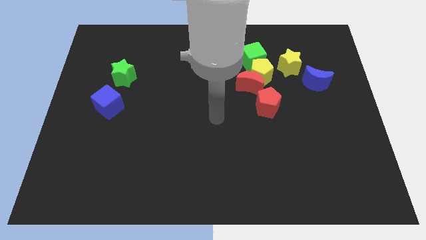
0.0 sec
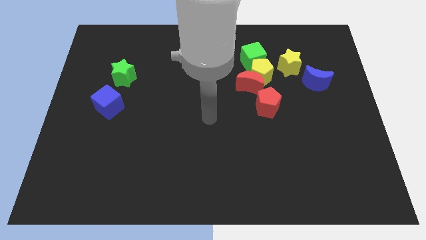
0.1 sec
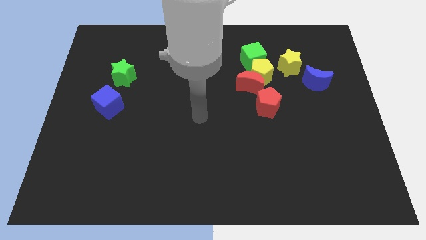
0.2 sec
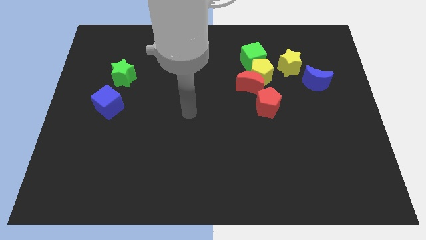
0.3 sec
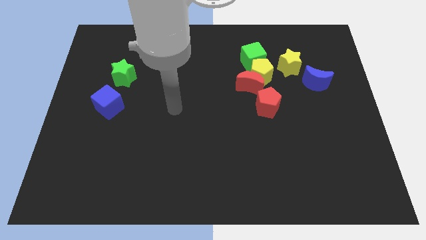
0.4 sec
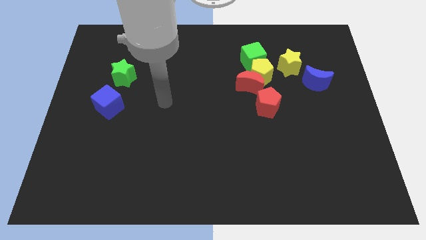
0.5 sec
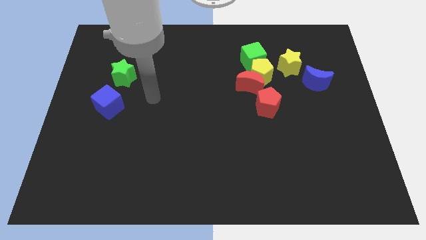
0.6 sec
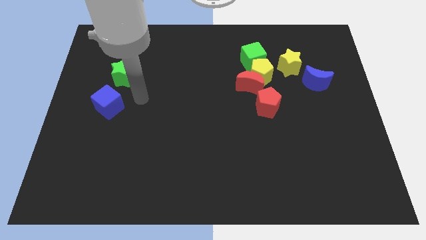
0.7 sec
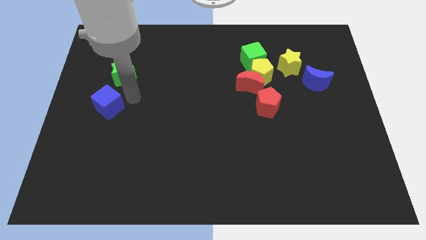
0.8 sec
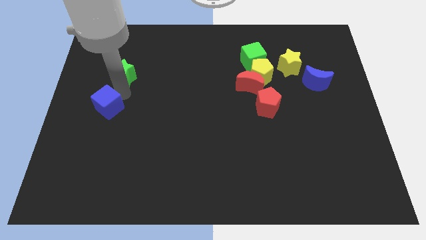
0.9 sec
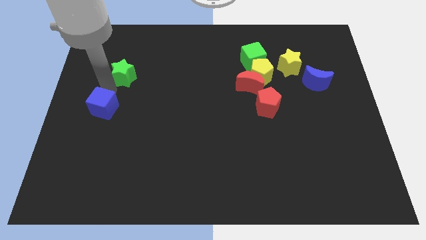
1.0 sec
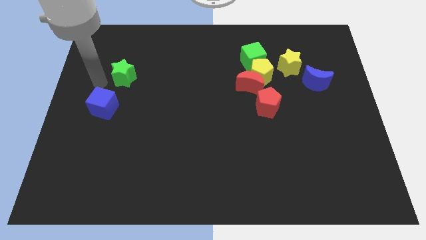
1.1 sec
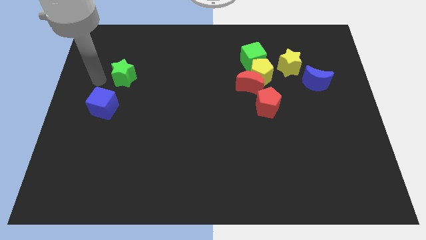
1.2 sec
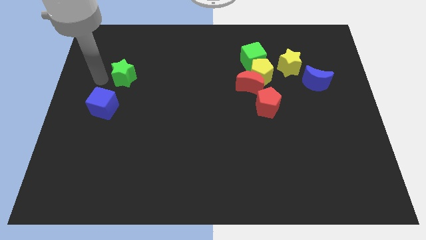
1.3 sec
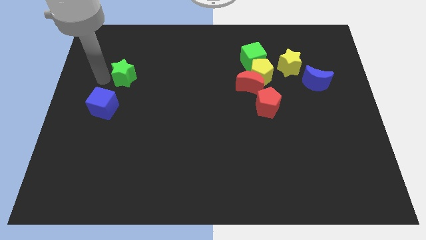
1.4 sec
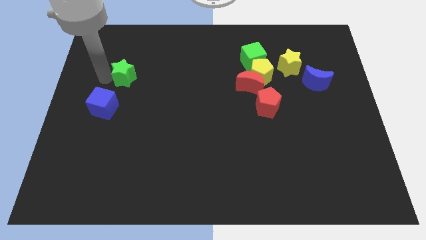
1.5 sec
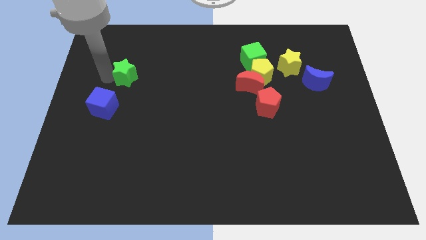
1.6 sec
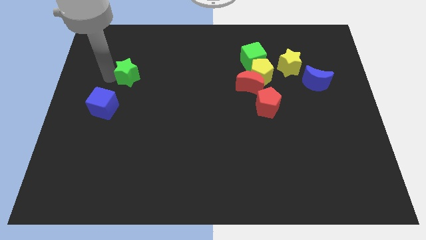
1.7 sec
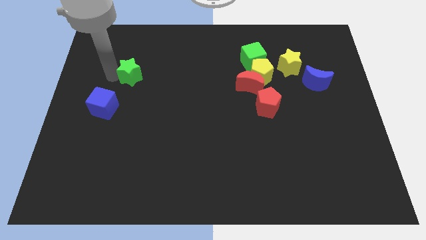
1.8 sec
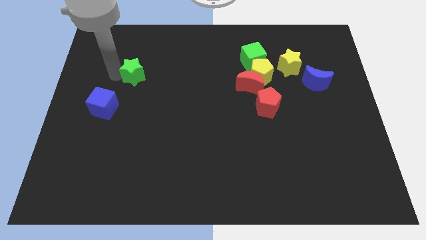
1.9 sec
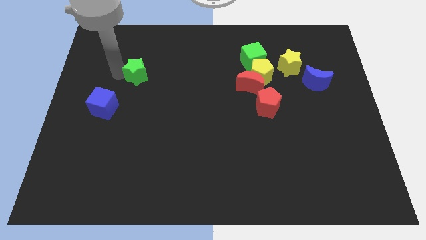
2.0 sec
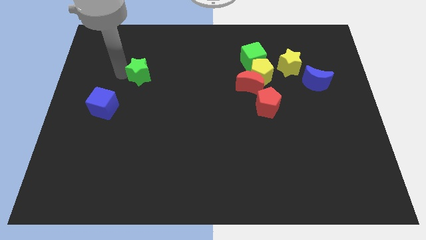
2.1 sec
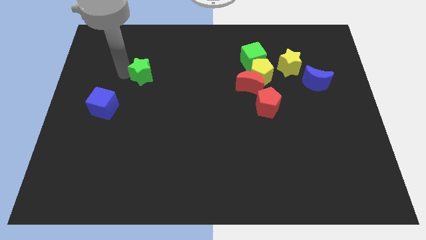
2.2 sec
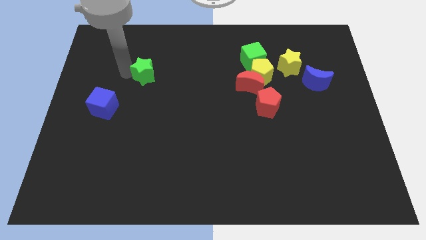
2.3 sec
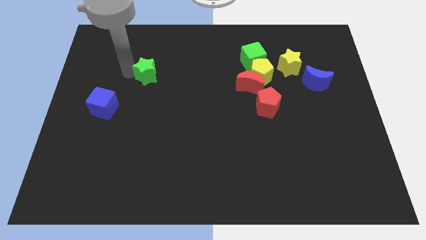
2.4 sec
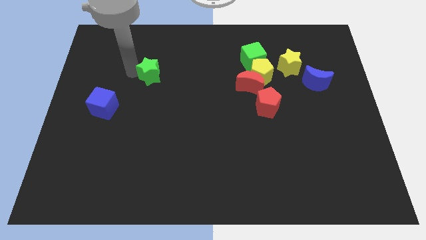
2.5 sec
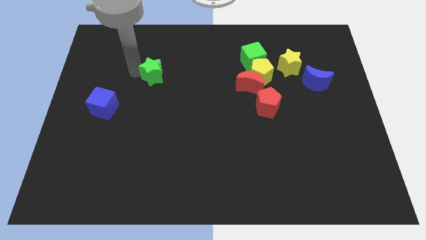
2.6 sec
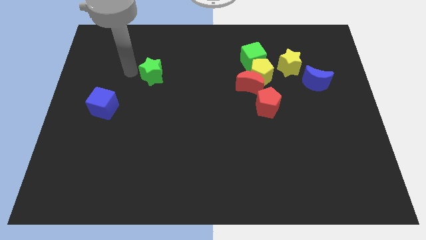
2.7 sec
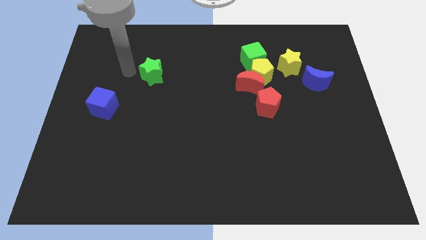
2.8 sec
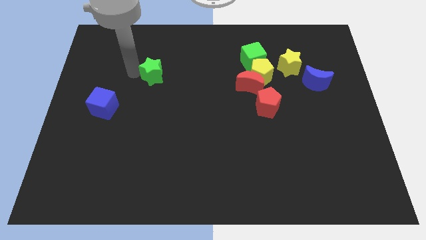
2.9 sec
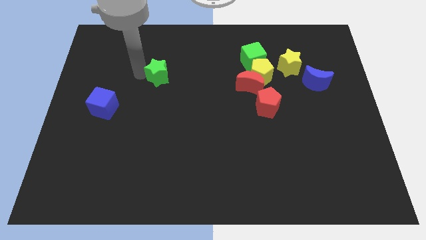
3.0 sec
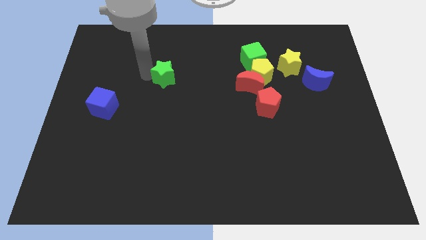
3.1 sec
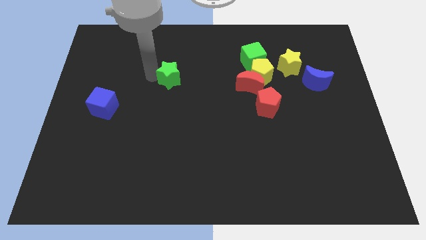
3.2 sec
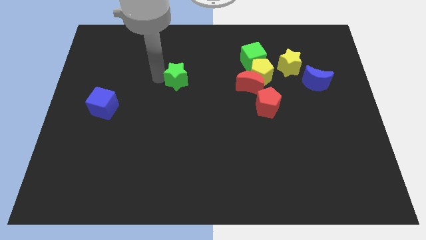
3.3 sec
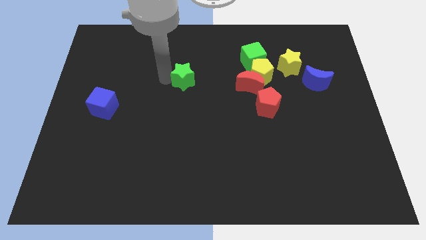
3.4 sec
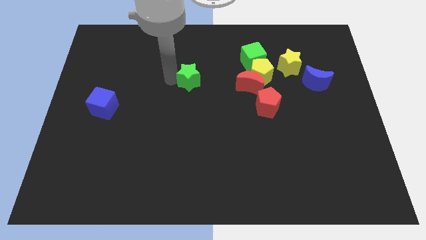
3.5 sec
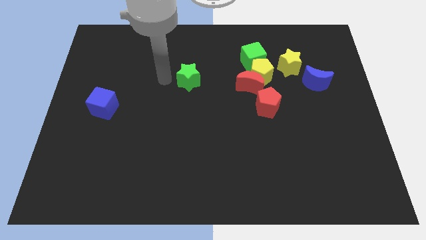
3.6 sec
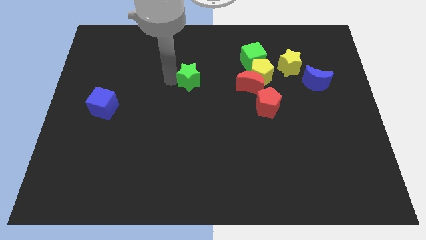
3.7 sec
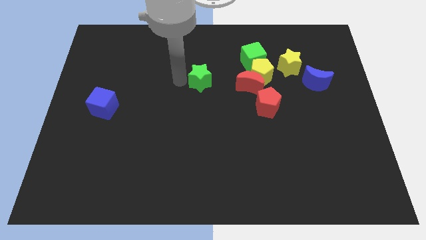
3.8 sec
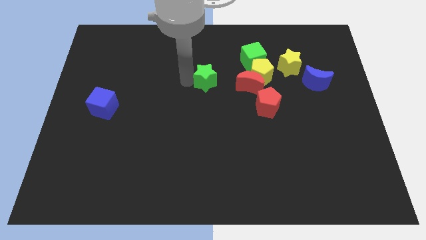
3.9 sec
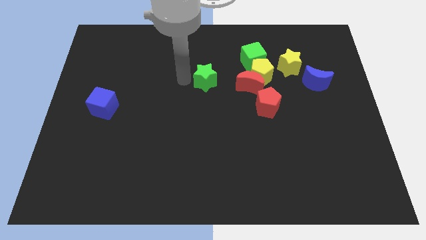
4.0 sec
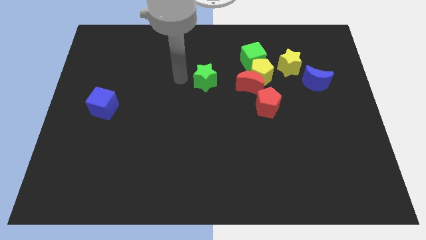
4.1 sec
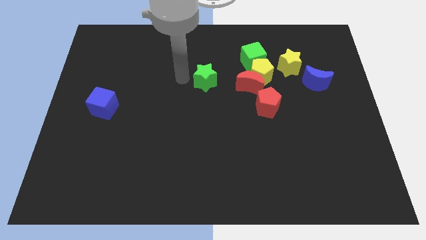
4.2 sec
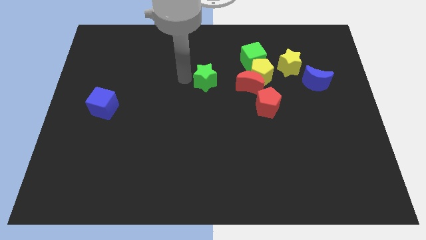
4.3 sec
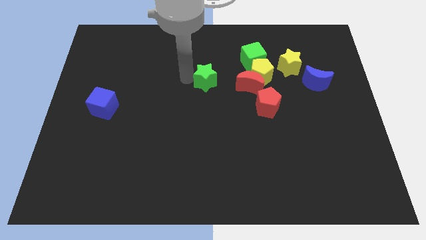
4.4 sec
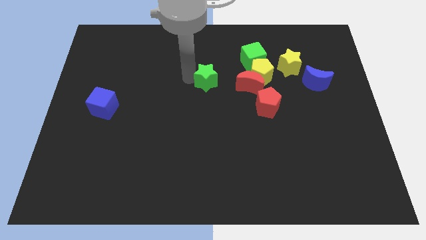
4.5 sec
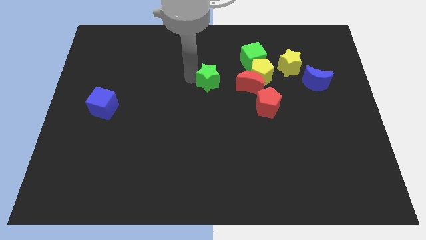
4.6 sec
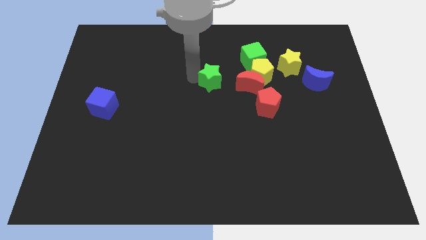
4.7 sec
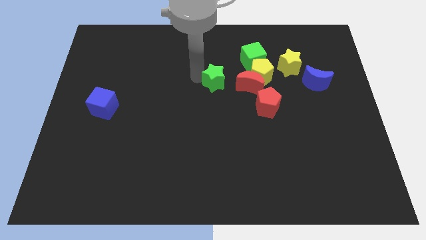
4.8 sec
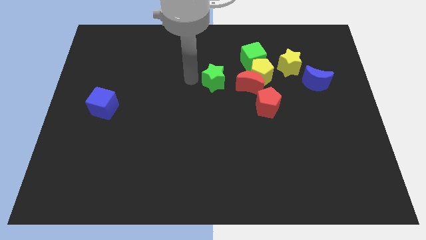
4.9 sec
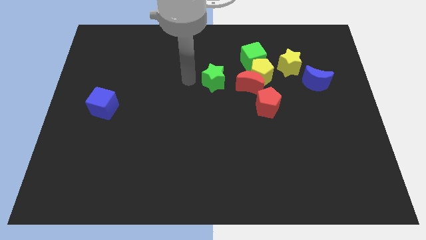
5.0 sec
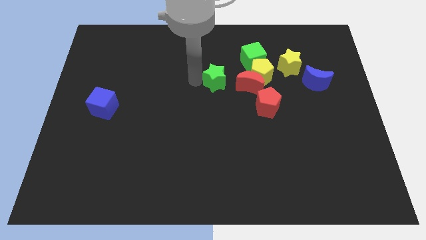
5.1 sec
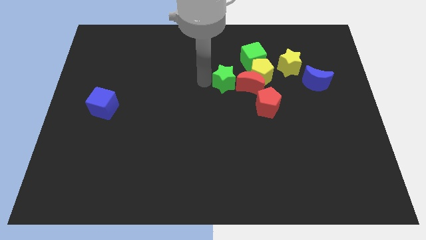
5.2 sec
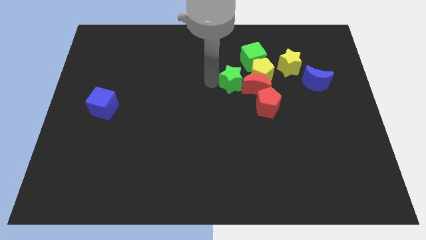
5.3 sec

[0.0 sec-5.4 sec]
push the green star close to the red moon

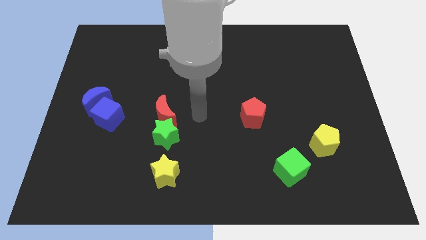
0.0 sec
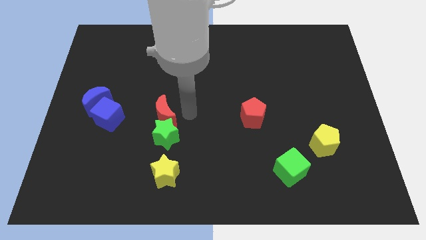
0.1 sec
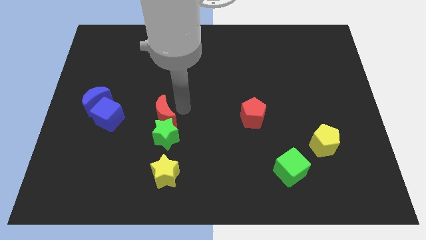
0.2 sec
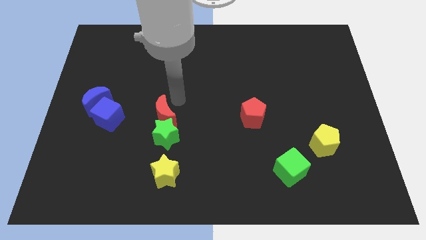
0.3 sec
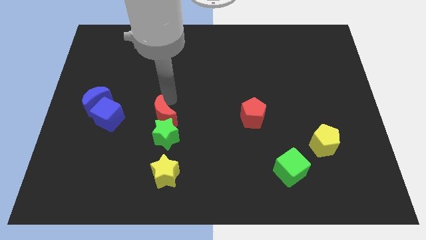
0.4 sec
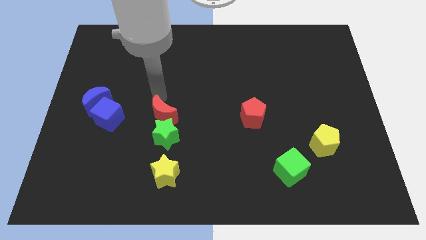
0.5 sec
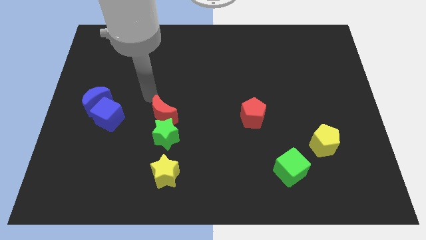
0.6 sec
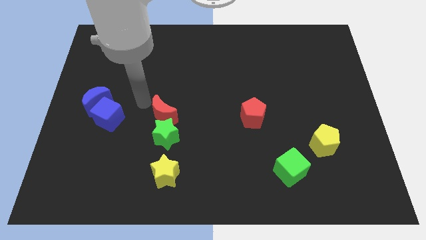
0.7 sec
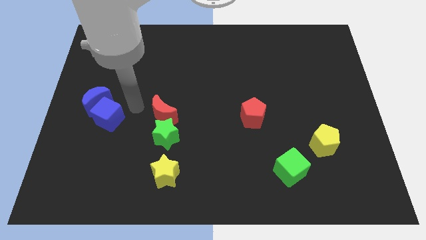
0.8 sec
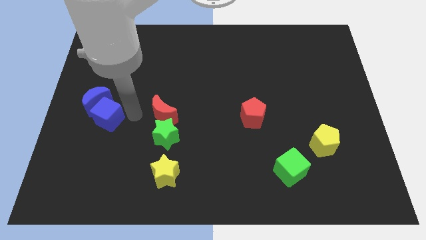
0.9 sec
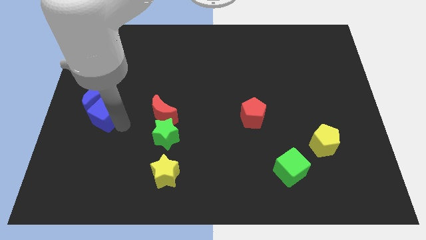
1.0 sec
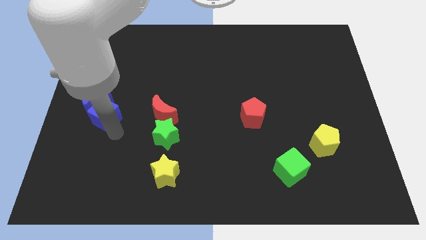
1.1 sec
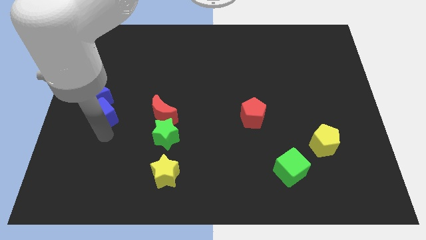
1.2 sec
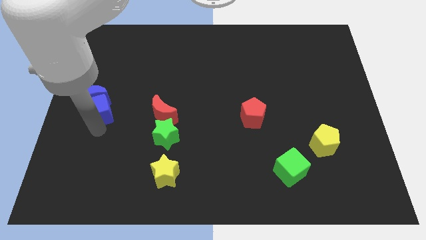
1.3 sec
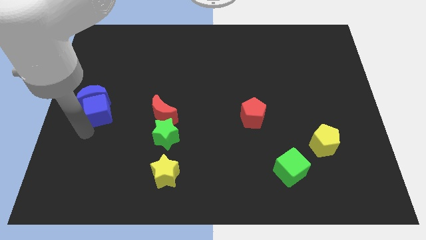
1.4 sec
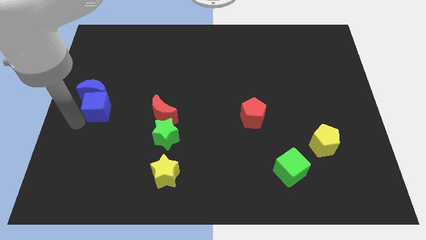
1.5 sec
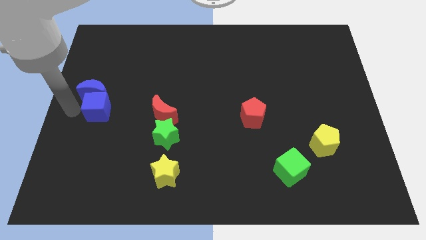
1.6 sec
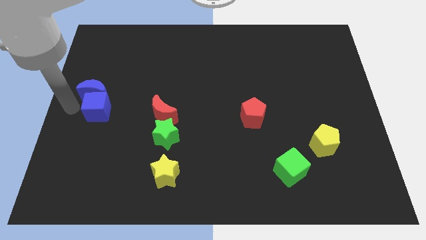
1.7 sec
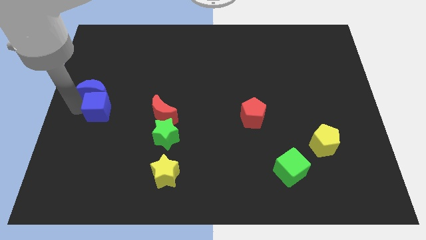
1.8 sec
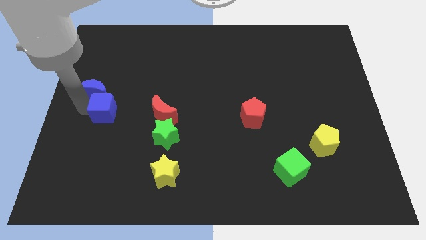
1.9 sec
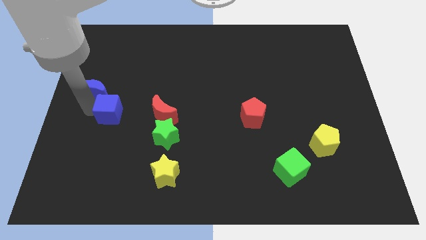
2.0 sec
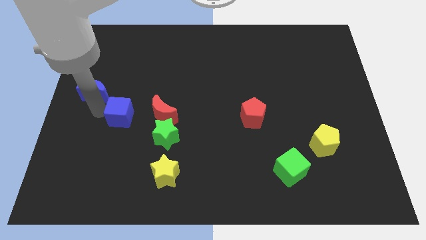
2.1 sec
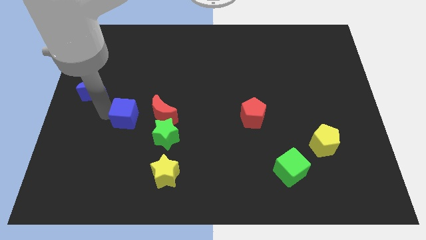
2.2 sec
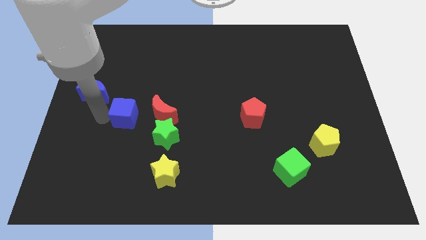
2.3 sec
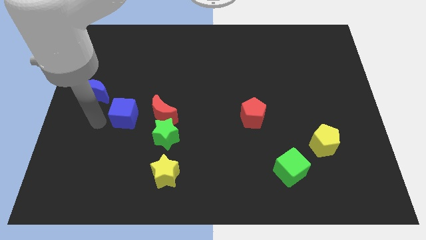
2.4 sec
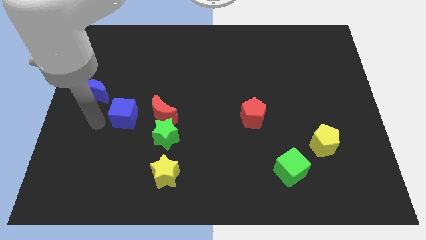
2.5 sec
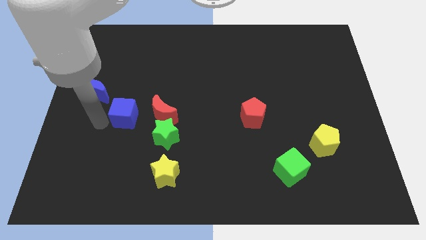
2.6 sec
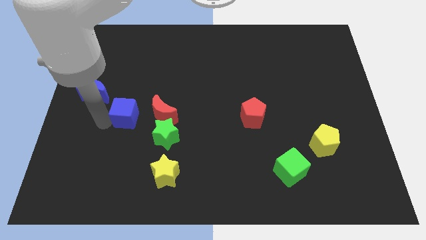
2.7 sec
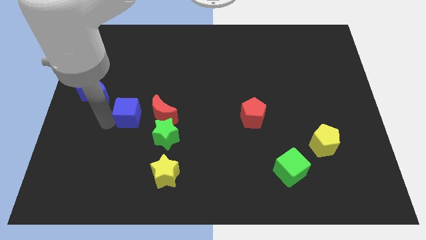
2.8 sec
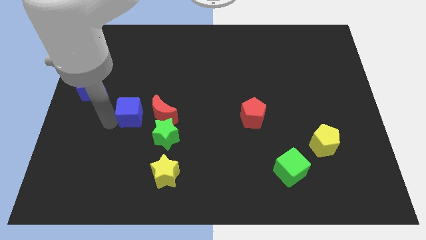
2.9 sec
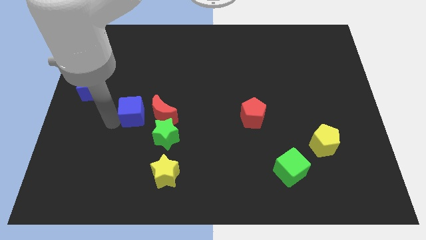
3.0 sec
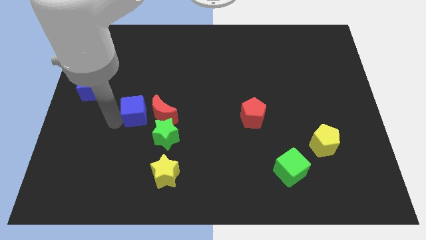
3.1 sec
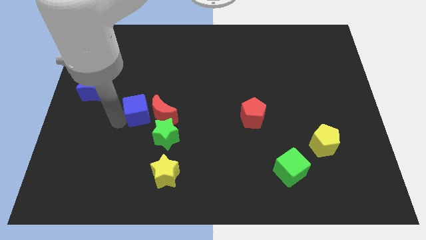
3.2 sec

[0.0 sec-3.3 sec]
put the blue cube to the red moon
